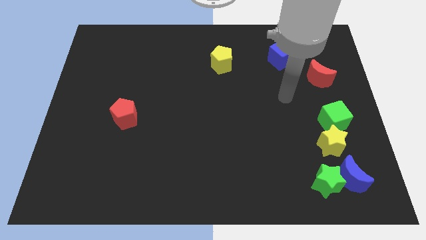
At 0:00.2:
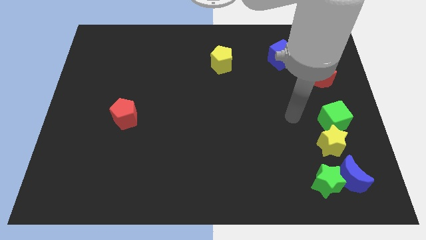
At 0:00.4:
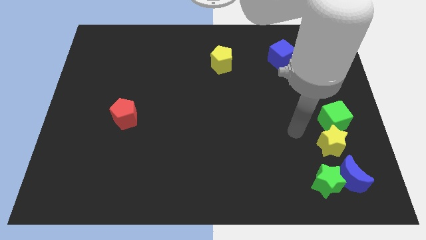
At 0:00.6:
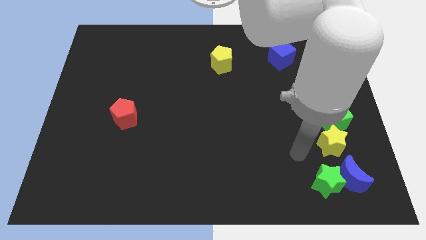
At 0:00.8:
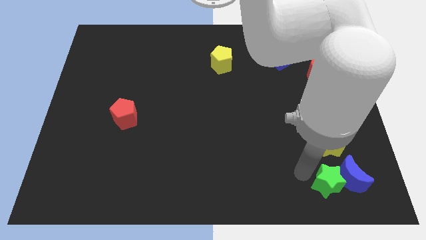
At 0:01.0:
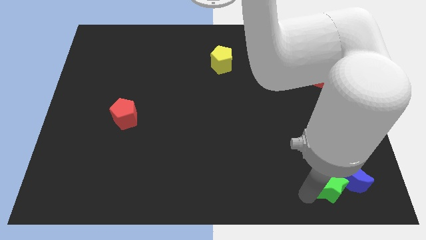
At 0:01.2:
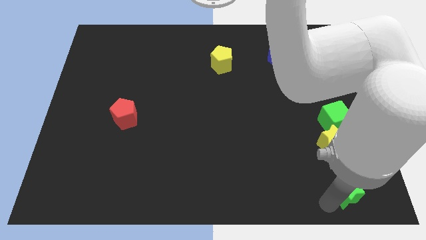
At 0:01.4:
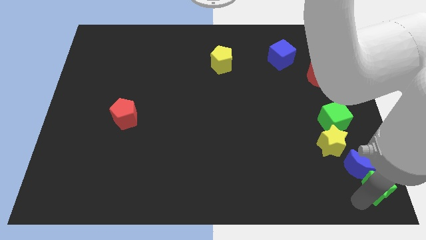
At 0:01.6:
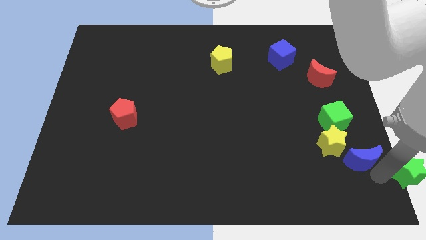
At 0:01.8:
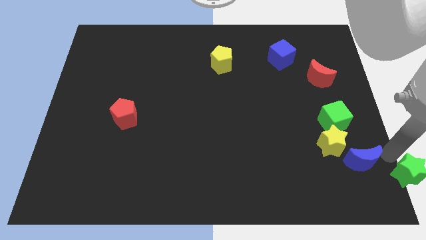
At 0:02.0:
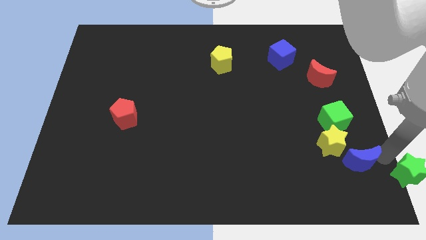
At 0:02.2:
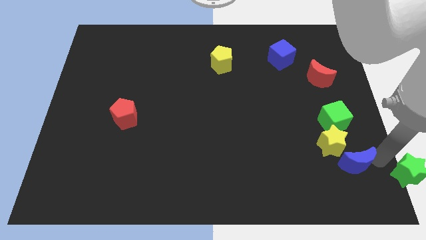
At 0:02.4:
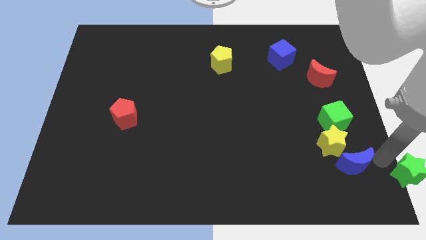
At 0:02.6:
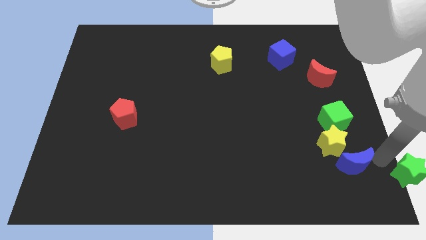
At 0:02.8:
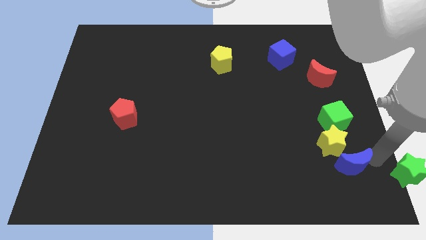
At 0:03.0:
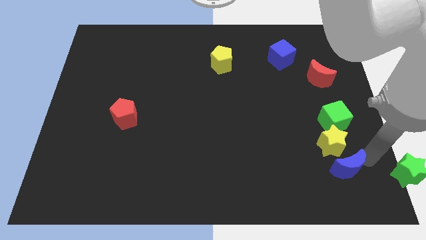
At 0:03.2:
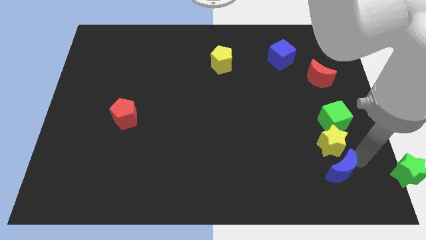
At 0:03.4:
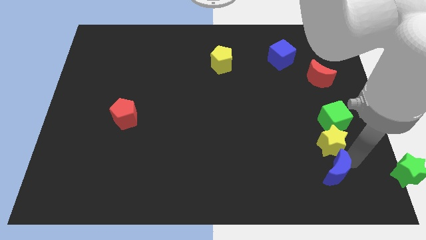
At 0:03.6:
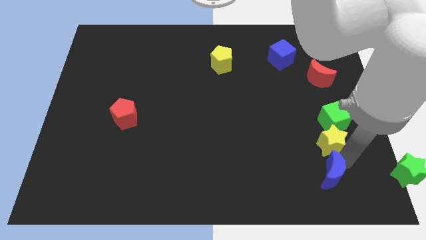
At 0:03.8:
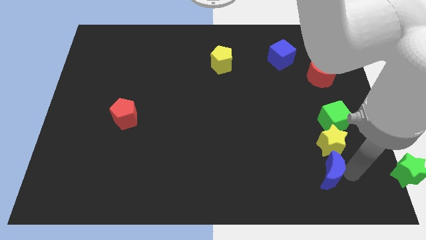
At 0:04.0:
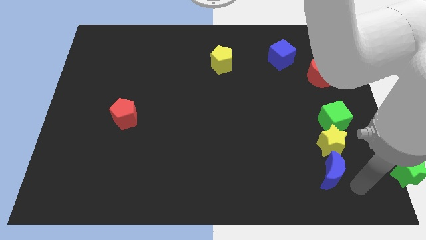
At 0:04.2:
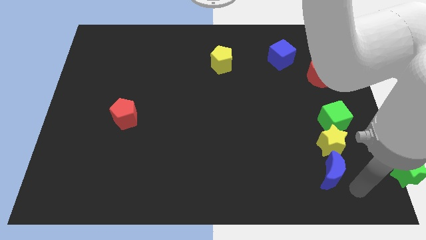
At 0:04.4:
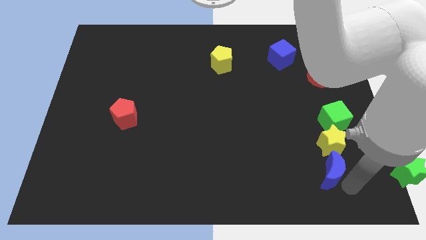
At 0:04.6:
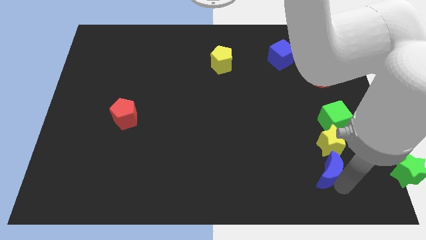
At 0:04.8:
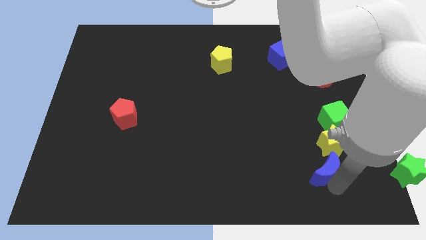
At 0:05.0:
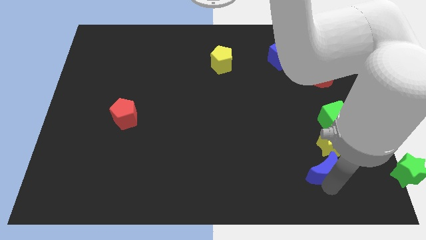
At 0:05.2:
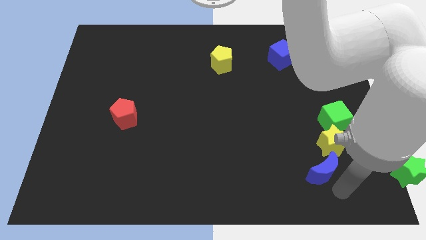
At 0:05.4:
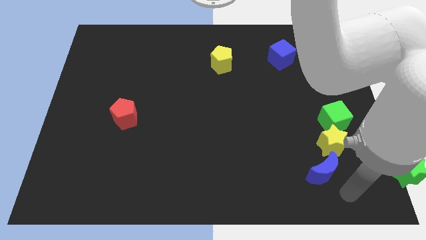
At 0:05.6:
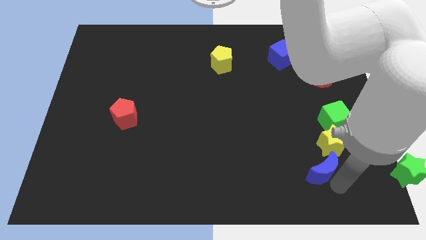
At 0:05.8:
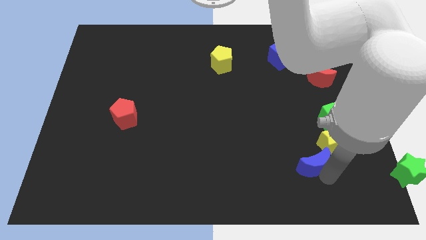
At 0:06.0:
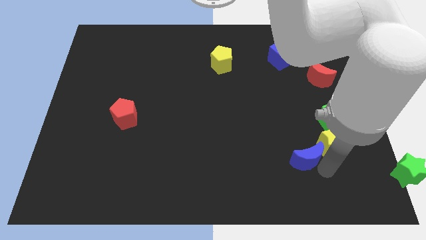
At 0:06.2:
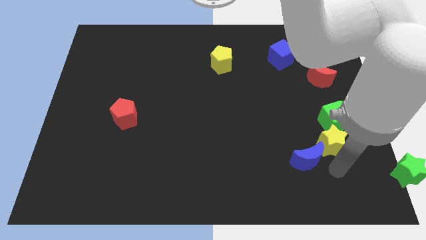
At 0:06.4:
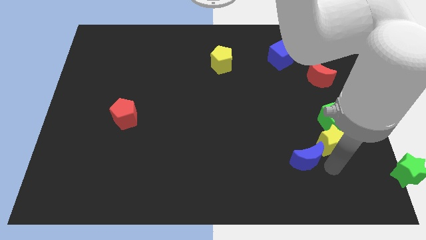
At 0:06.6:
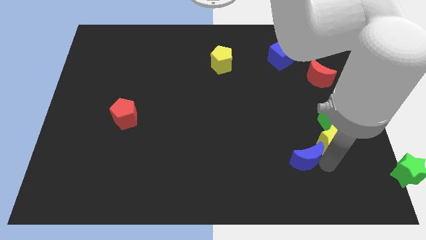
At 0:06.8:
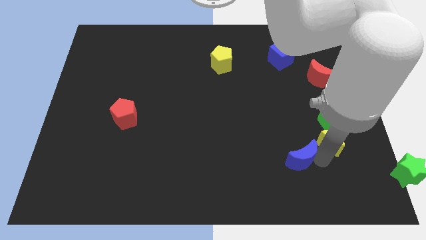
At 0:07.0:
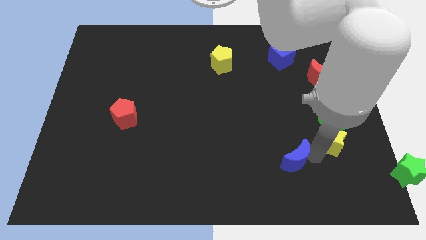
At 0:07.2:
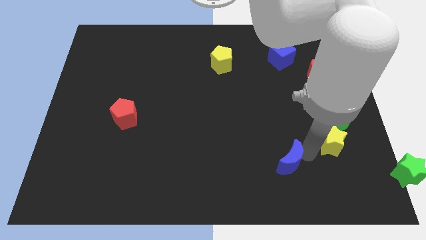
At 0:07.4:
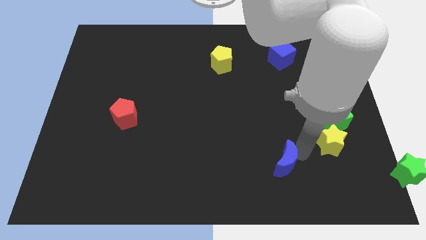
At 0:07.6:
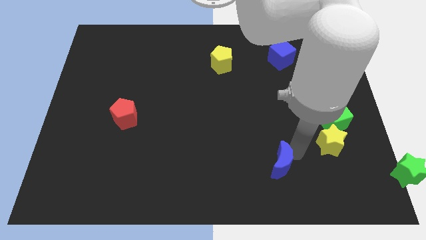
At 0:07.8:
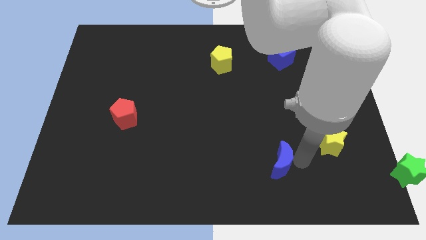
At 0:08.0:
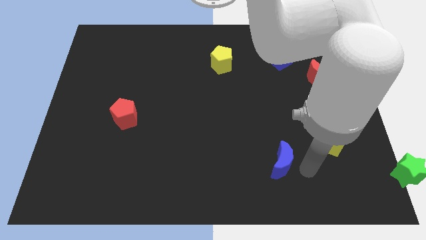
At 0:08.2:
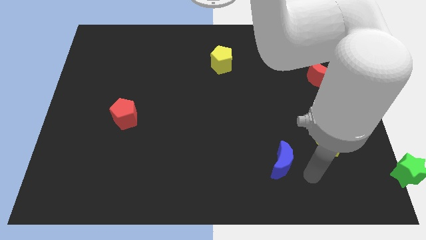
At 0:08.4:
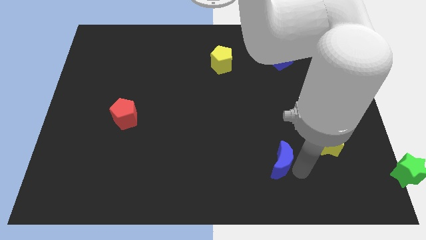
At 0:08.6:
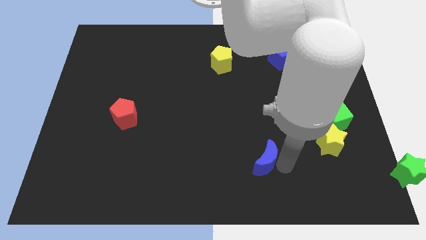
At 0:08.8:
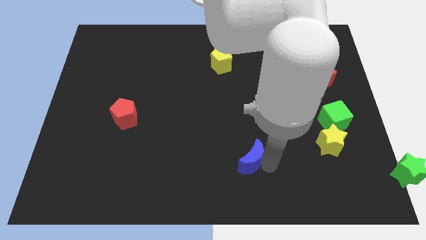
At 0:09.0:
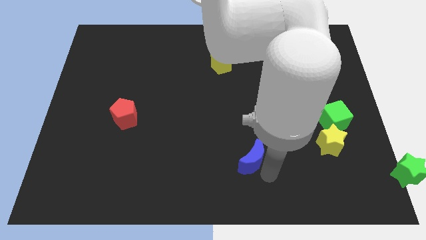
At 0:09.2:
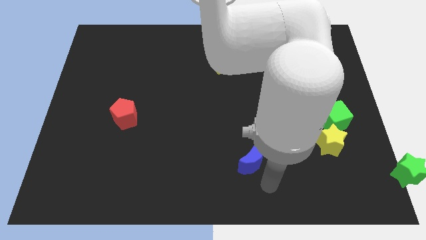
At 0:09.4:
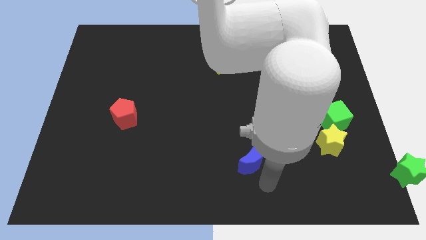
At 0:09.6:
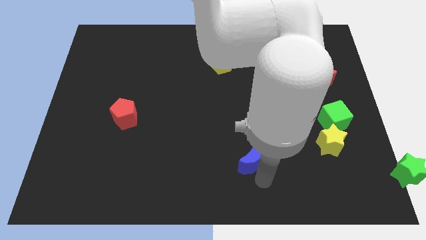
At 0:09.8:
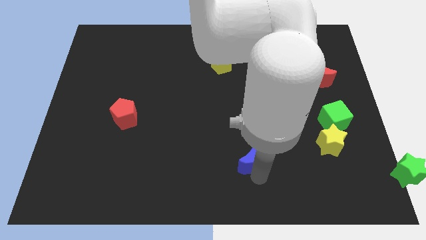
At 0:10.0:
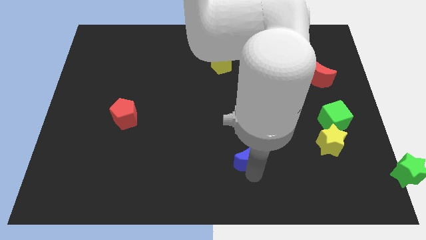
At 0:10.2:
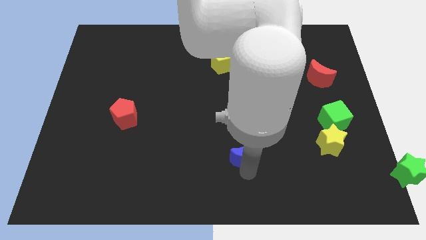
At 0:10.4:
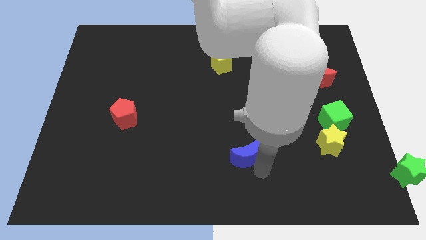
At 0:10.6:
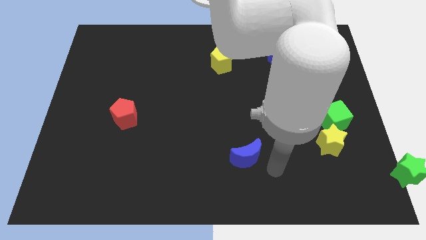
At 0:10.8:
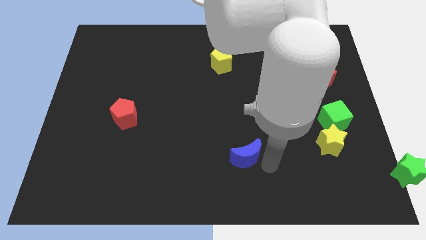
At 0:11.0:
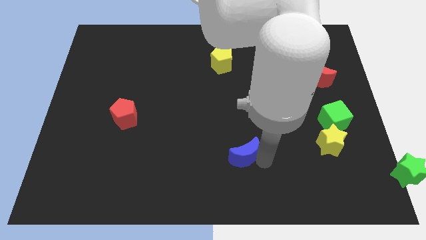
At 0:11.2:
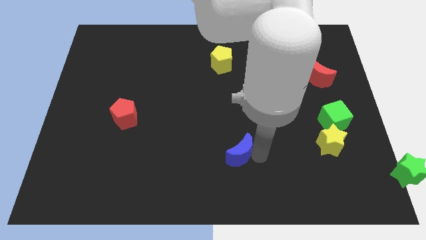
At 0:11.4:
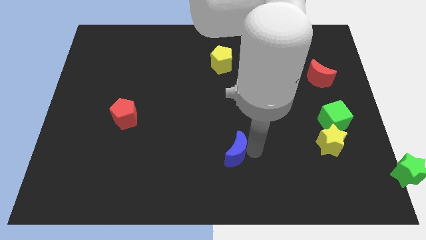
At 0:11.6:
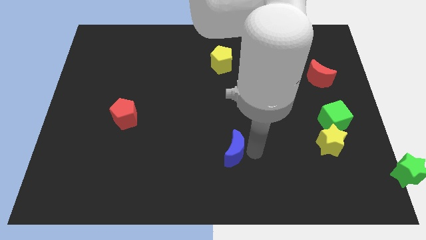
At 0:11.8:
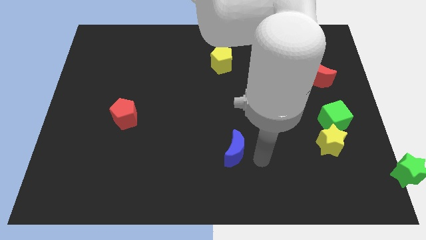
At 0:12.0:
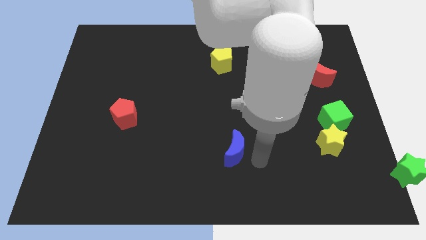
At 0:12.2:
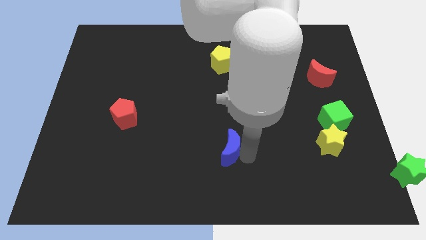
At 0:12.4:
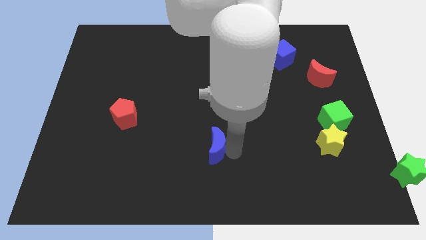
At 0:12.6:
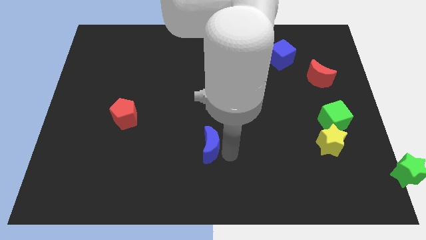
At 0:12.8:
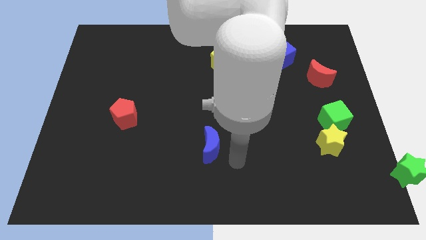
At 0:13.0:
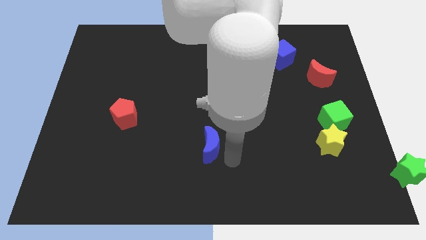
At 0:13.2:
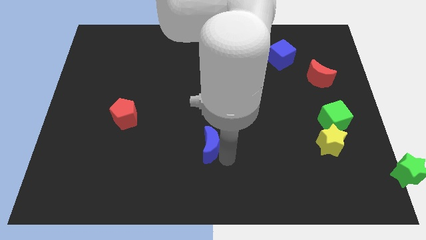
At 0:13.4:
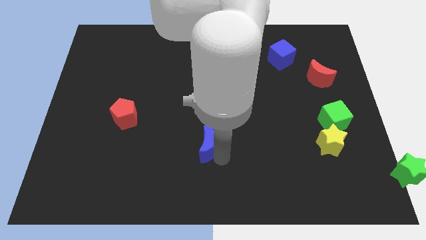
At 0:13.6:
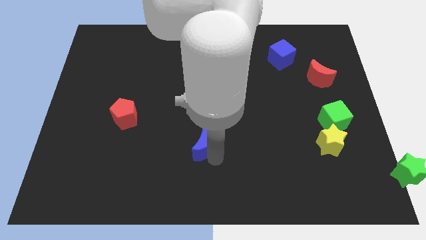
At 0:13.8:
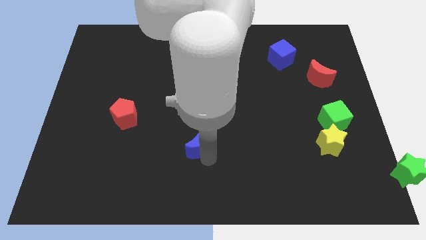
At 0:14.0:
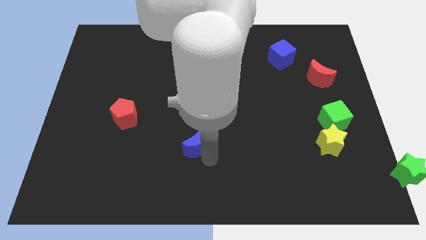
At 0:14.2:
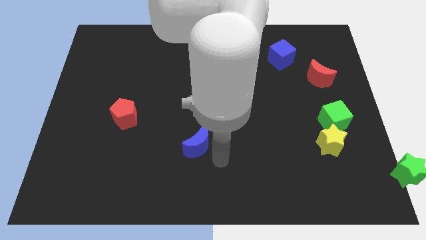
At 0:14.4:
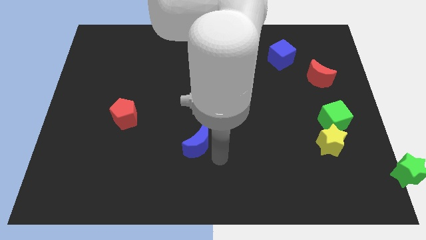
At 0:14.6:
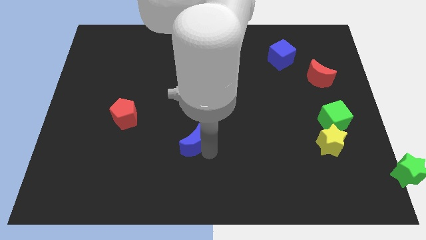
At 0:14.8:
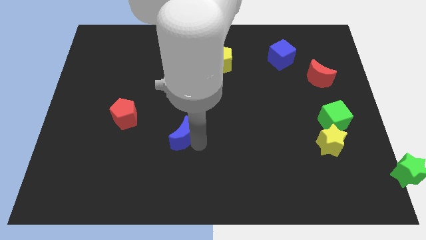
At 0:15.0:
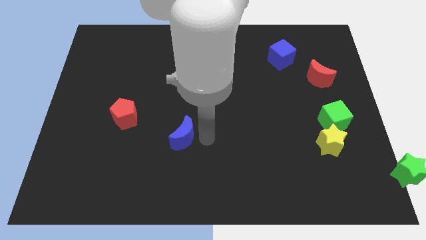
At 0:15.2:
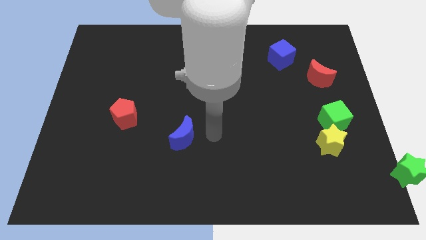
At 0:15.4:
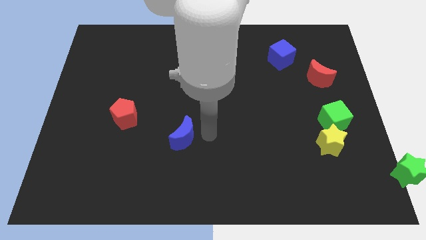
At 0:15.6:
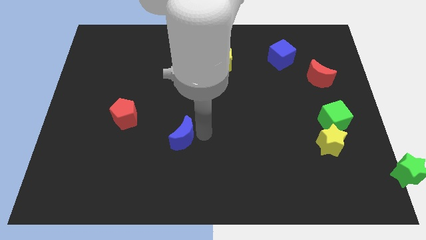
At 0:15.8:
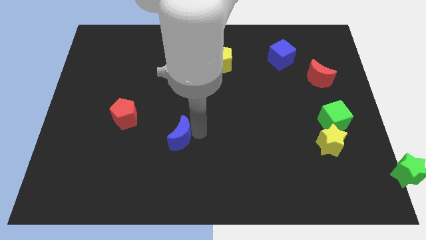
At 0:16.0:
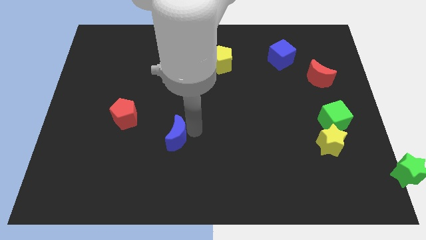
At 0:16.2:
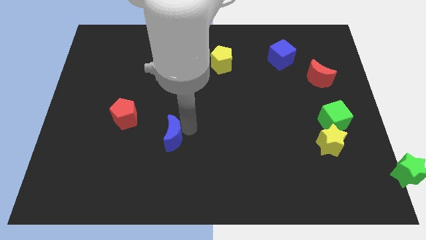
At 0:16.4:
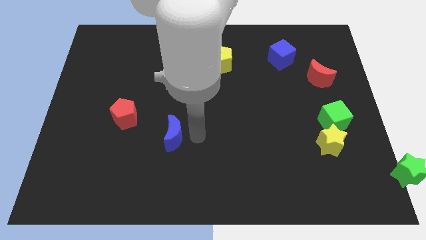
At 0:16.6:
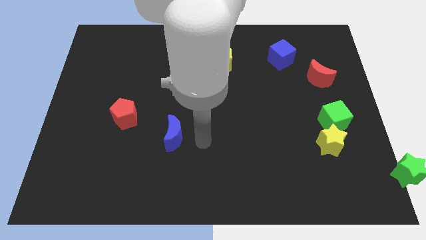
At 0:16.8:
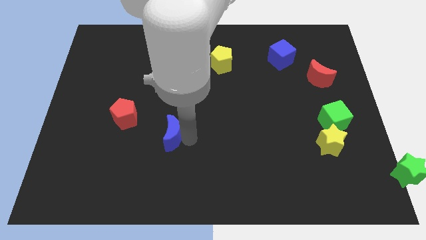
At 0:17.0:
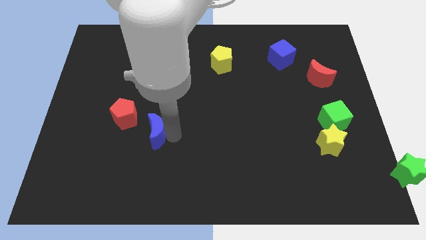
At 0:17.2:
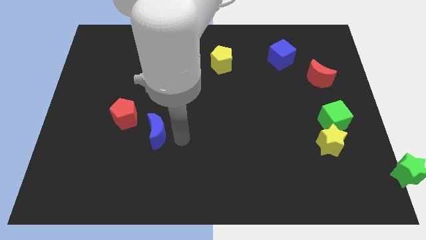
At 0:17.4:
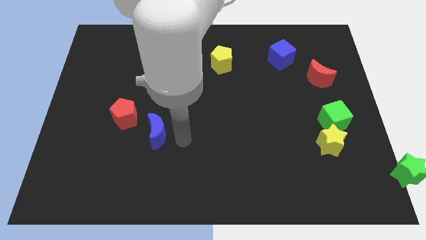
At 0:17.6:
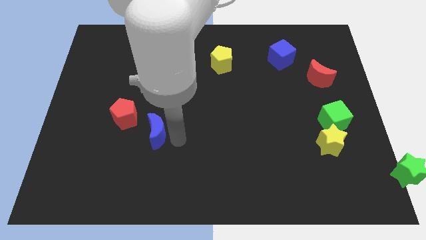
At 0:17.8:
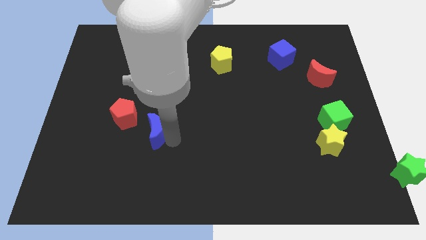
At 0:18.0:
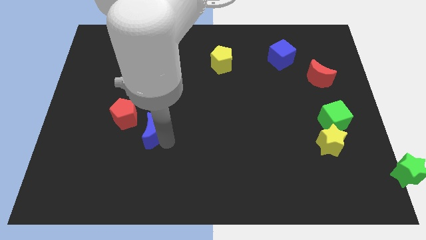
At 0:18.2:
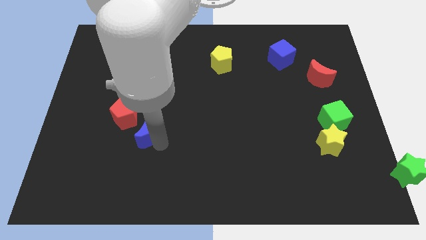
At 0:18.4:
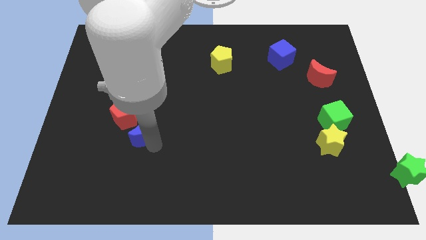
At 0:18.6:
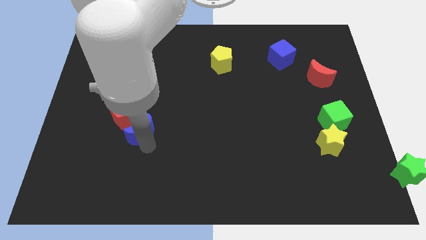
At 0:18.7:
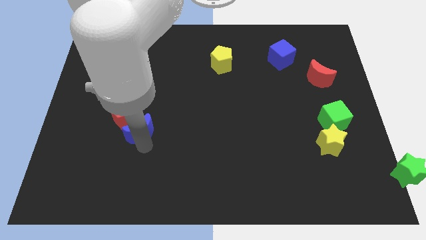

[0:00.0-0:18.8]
slide the blue moon towards the red pentagon
